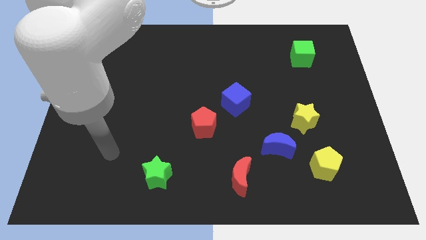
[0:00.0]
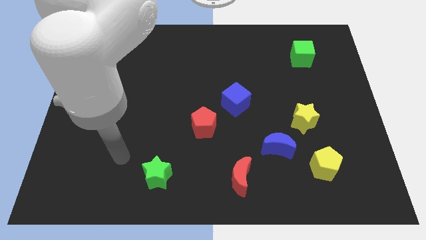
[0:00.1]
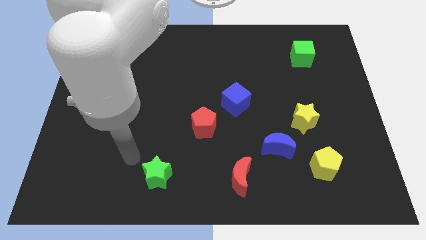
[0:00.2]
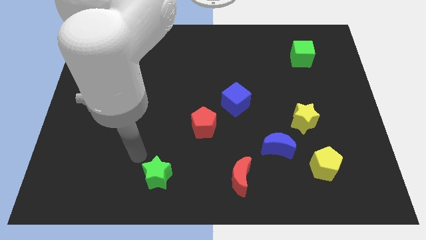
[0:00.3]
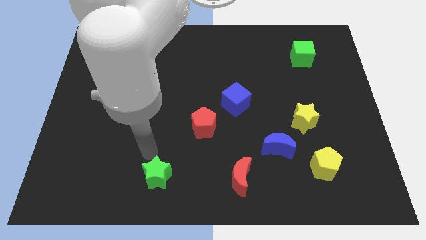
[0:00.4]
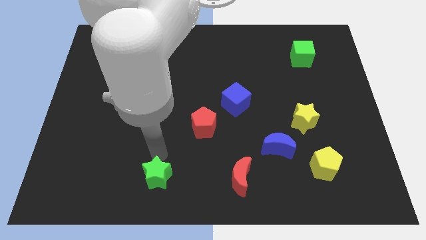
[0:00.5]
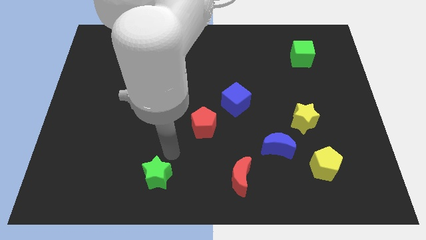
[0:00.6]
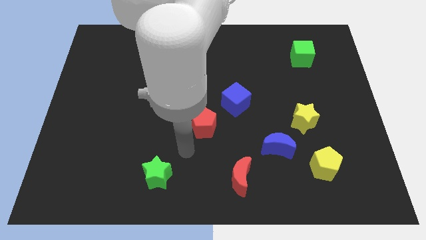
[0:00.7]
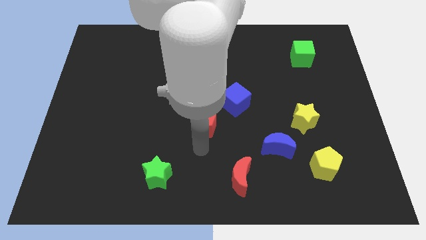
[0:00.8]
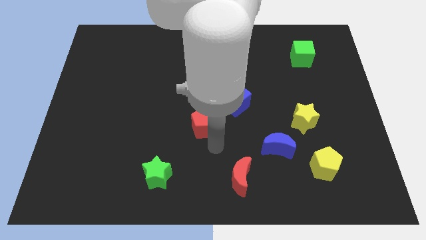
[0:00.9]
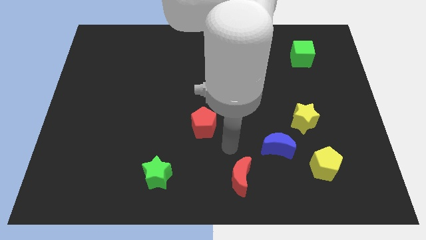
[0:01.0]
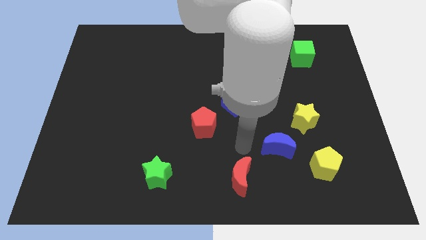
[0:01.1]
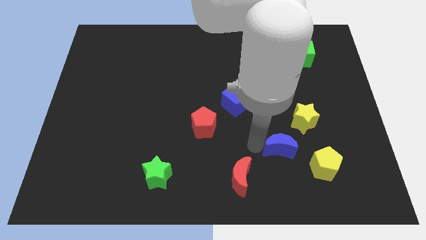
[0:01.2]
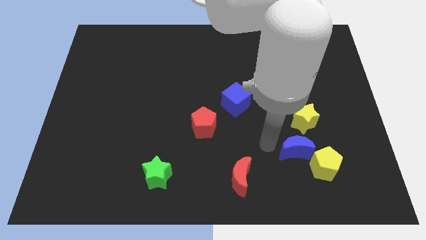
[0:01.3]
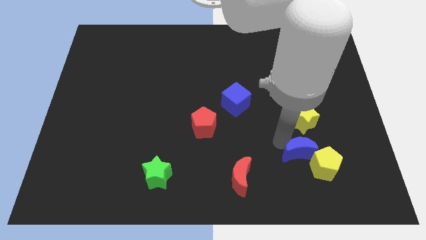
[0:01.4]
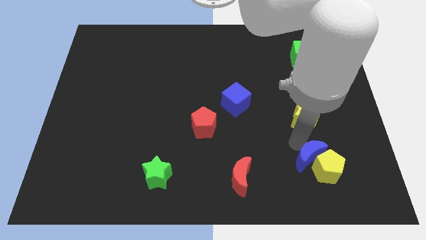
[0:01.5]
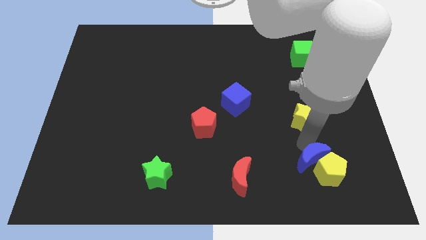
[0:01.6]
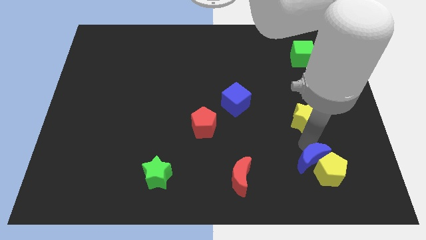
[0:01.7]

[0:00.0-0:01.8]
pull the yellow star apart from the blue moon

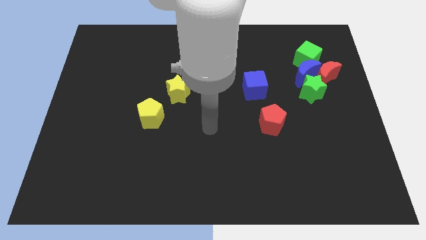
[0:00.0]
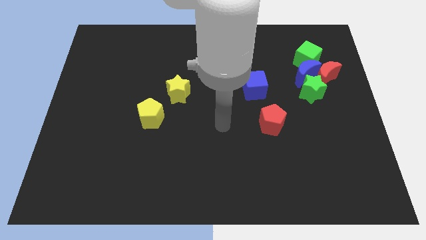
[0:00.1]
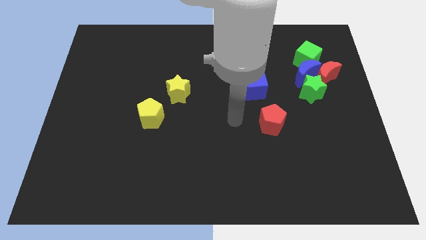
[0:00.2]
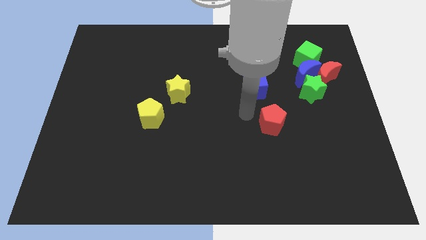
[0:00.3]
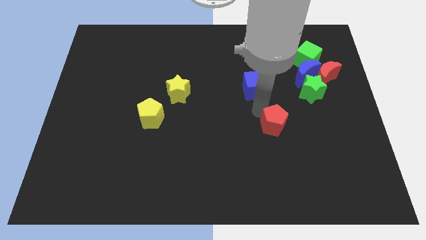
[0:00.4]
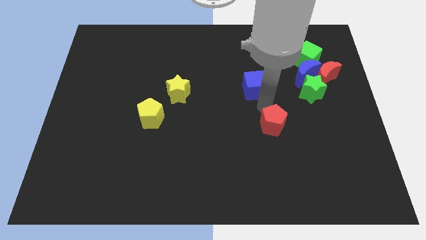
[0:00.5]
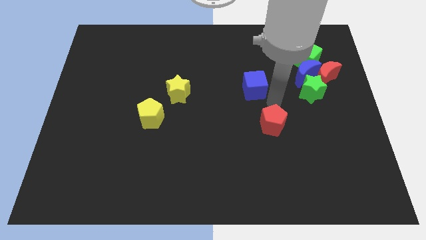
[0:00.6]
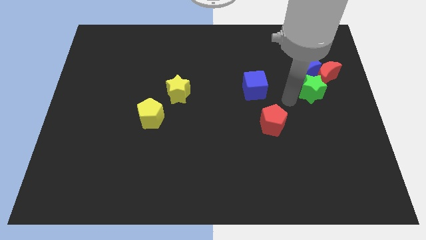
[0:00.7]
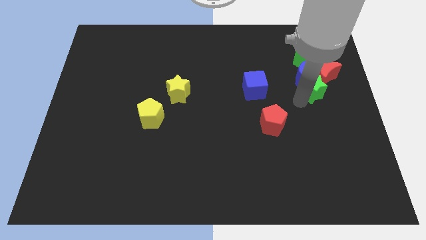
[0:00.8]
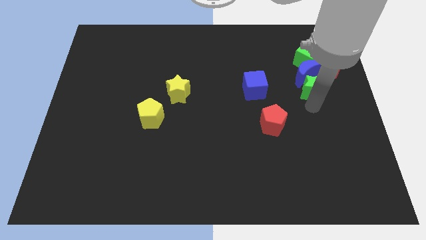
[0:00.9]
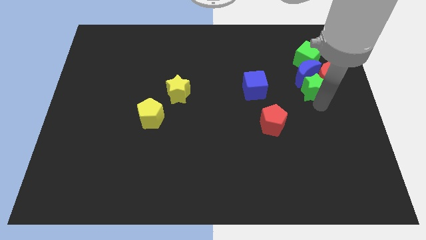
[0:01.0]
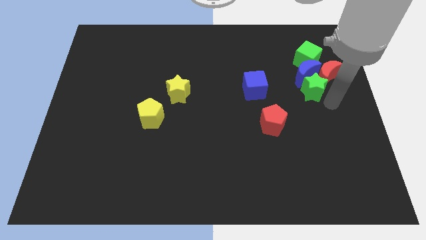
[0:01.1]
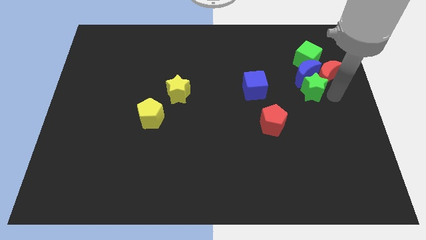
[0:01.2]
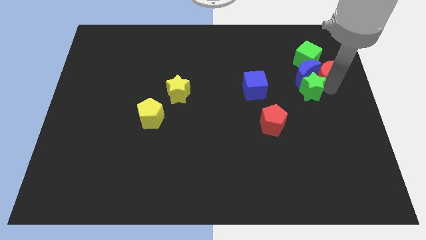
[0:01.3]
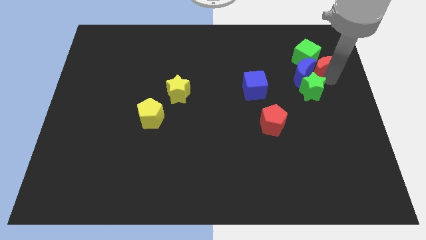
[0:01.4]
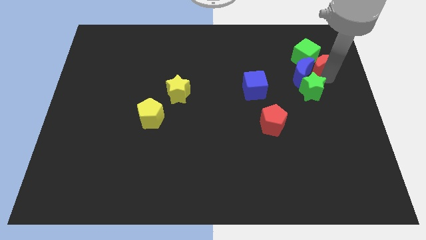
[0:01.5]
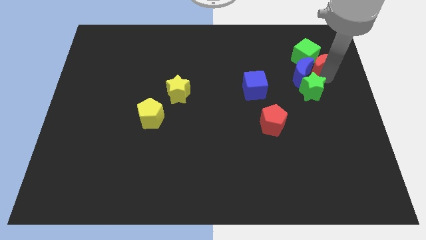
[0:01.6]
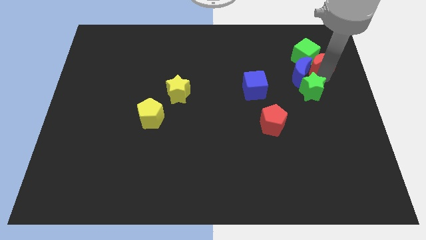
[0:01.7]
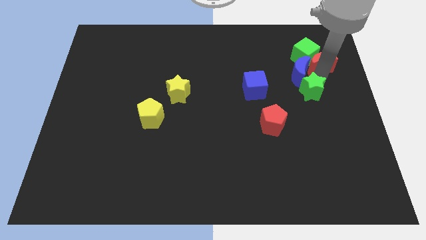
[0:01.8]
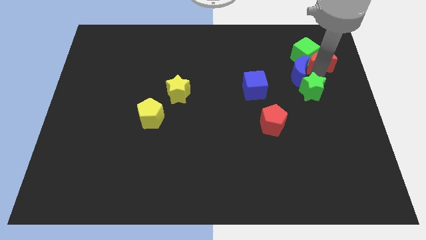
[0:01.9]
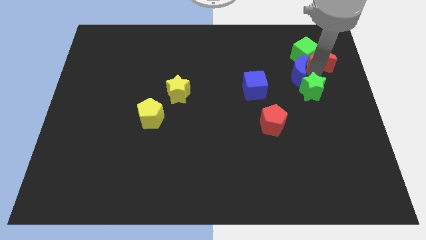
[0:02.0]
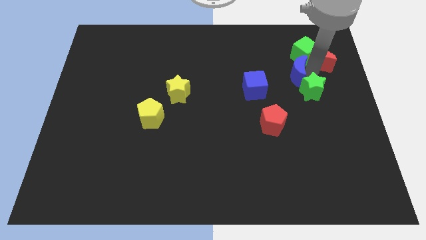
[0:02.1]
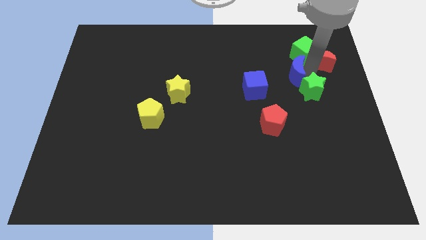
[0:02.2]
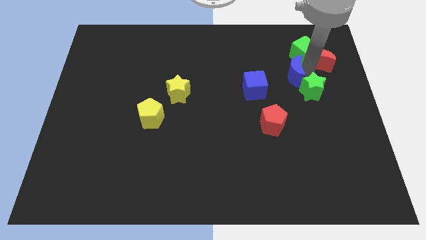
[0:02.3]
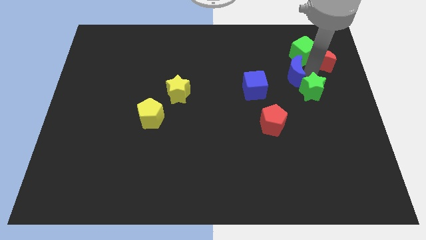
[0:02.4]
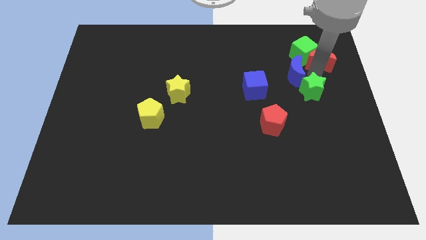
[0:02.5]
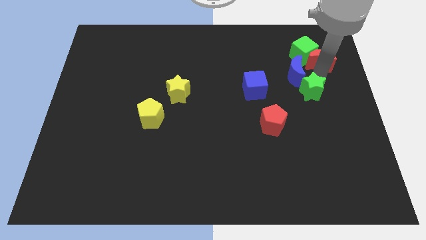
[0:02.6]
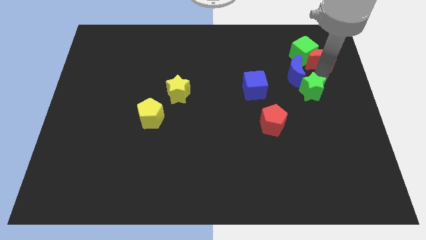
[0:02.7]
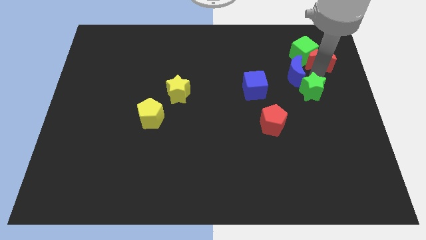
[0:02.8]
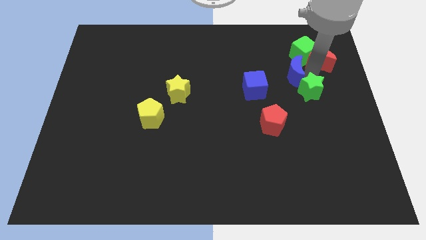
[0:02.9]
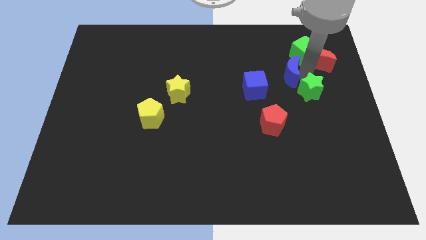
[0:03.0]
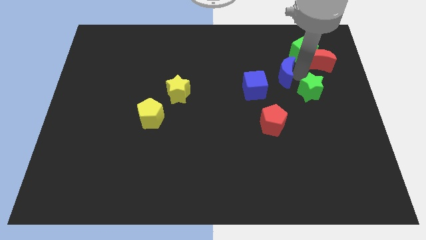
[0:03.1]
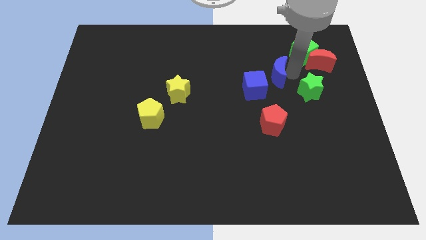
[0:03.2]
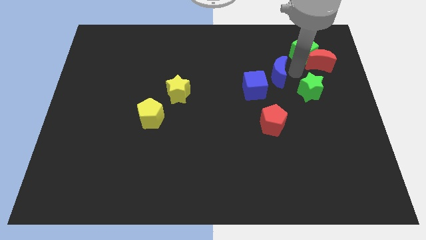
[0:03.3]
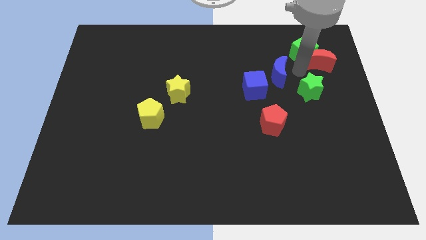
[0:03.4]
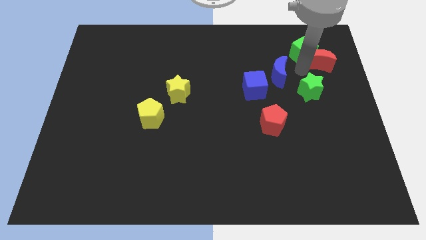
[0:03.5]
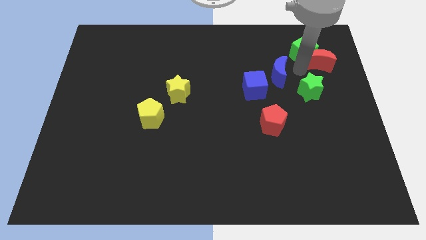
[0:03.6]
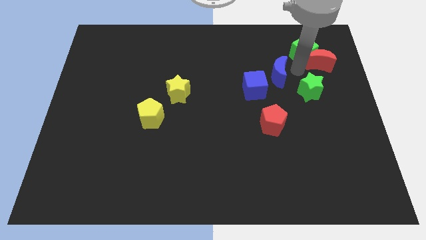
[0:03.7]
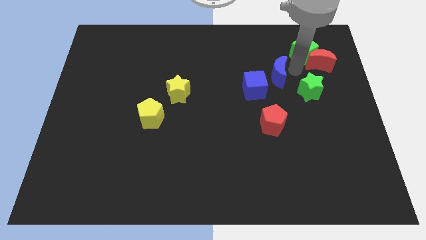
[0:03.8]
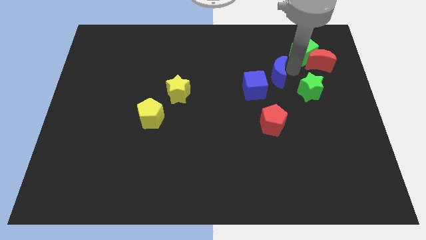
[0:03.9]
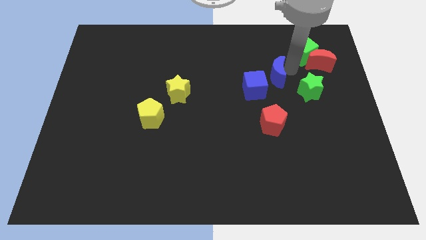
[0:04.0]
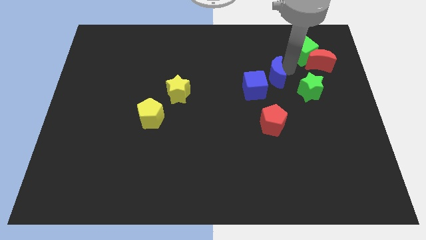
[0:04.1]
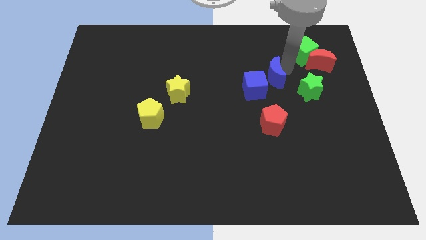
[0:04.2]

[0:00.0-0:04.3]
pull the blue moon apart from the group of blocks

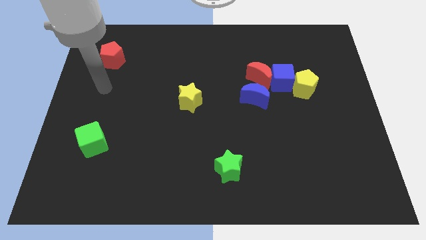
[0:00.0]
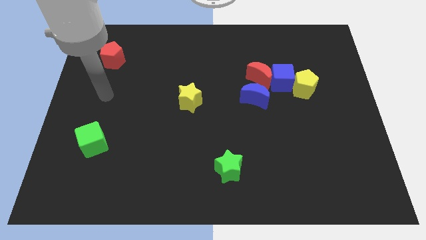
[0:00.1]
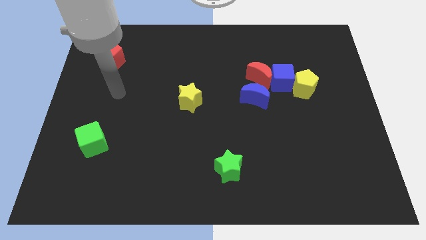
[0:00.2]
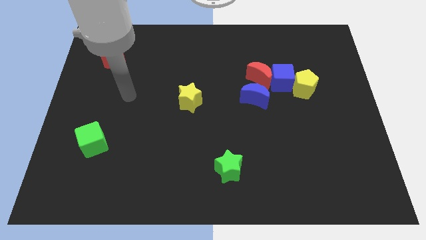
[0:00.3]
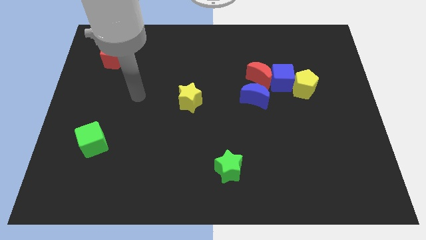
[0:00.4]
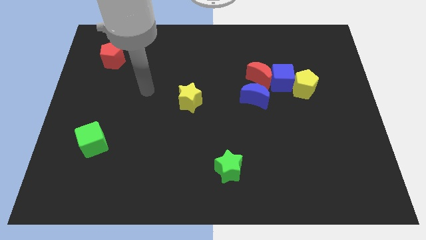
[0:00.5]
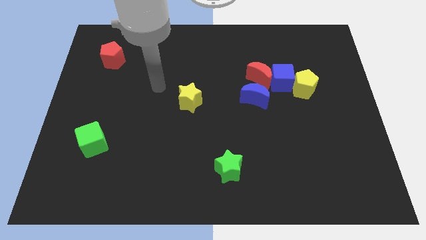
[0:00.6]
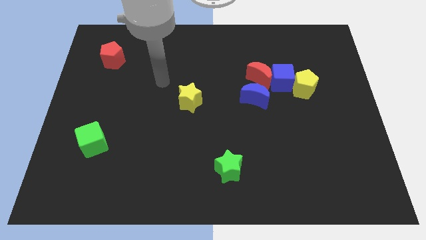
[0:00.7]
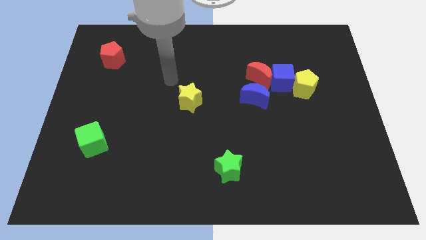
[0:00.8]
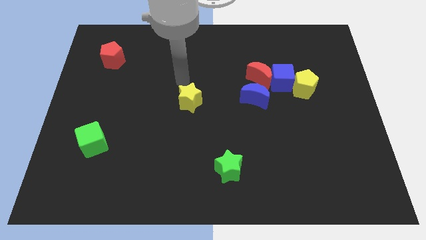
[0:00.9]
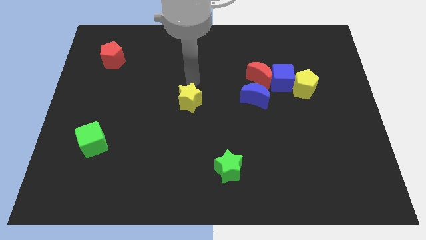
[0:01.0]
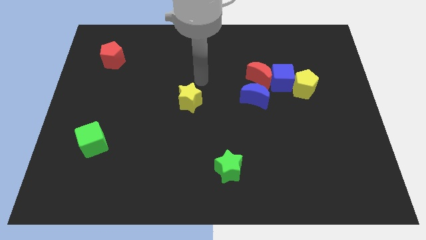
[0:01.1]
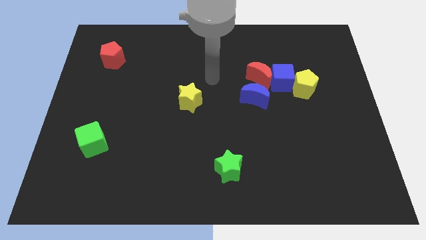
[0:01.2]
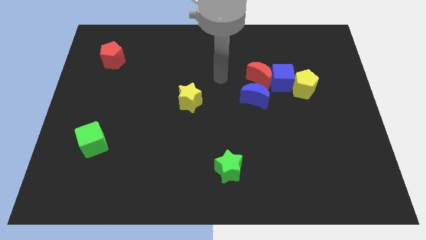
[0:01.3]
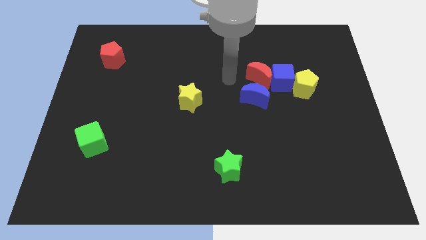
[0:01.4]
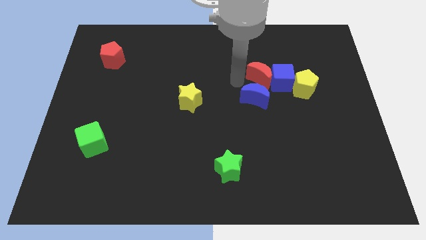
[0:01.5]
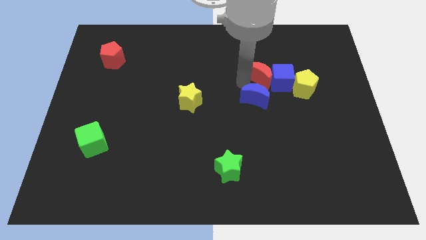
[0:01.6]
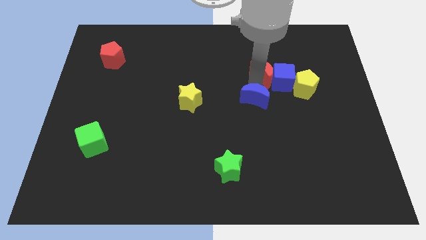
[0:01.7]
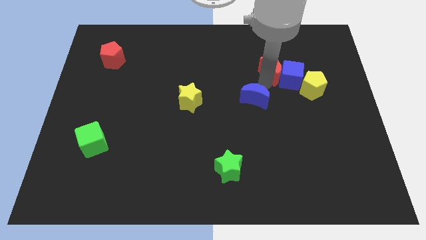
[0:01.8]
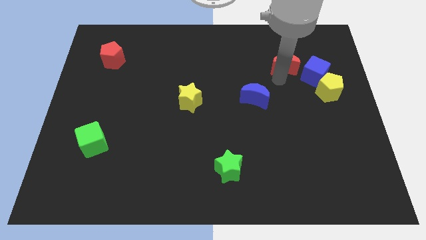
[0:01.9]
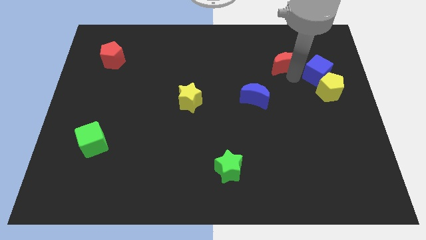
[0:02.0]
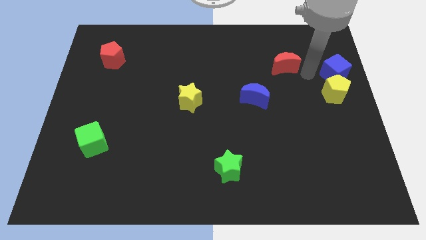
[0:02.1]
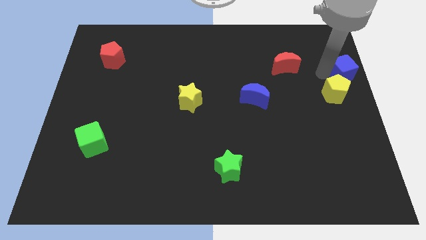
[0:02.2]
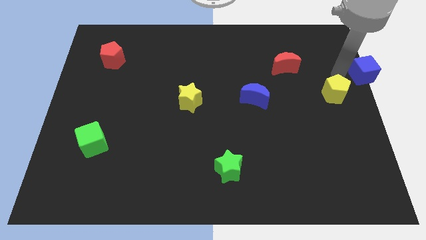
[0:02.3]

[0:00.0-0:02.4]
pull the yellow pentagon apart from the blue cube

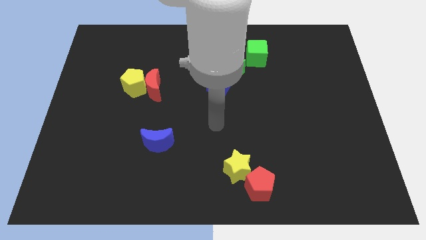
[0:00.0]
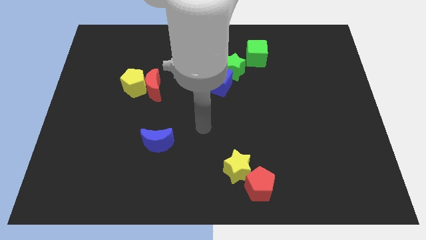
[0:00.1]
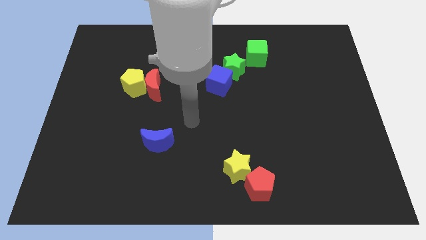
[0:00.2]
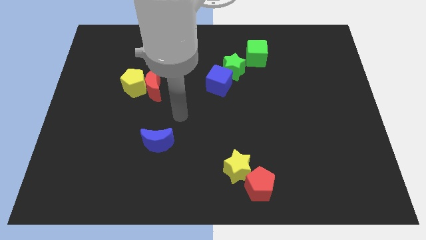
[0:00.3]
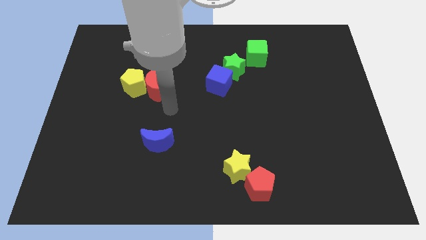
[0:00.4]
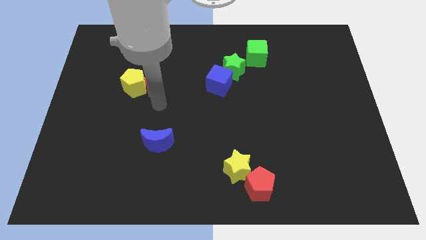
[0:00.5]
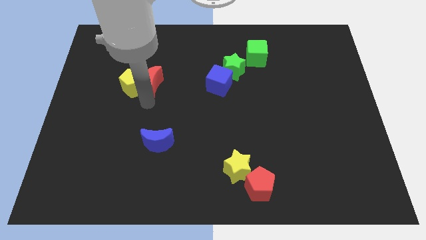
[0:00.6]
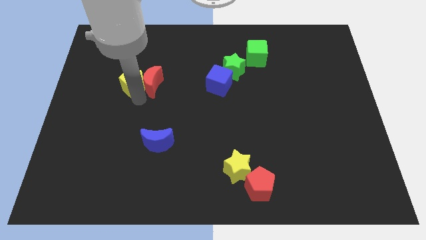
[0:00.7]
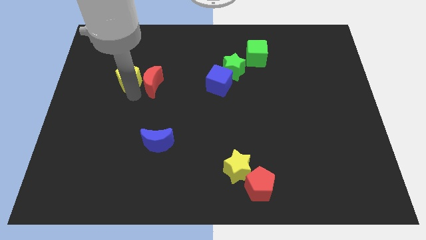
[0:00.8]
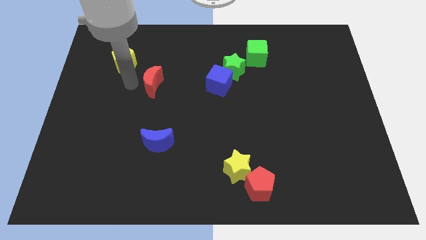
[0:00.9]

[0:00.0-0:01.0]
pull the red moon apart from the yellow pentagon
